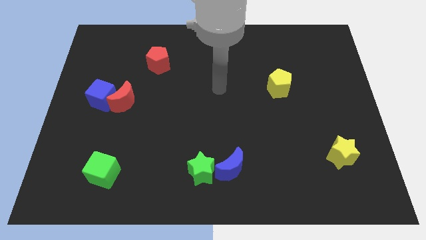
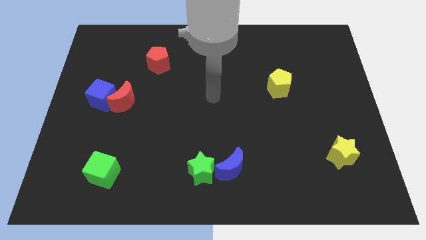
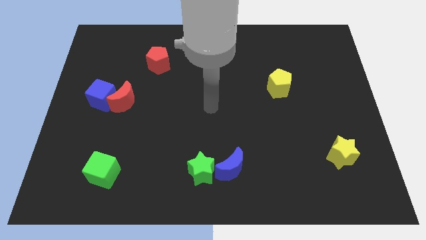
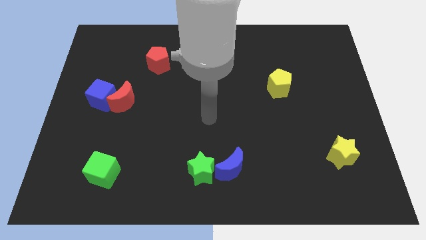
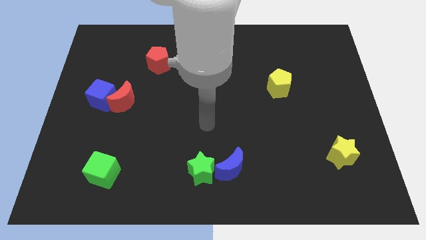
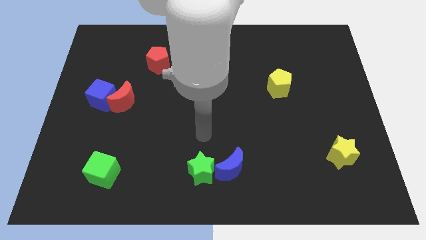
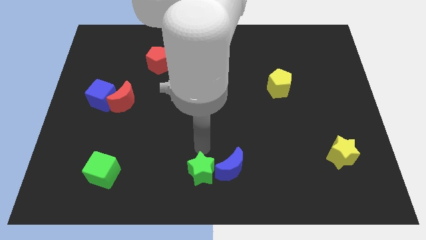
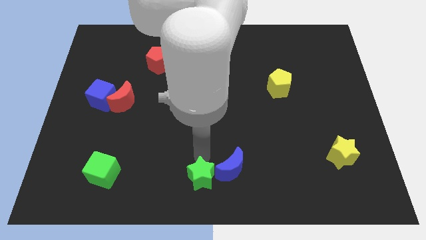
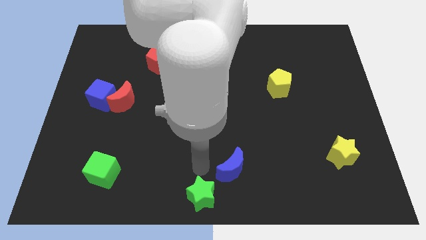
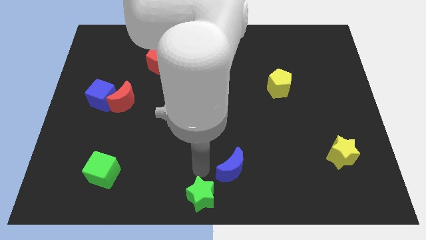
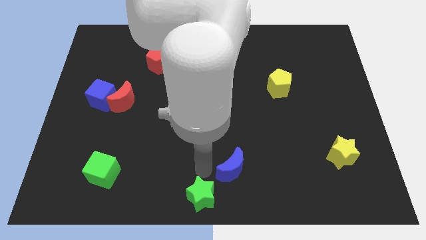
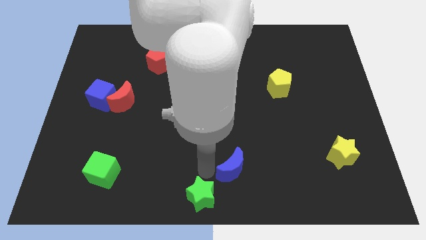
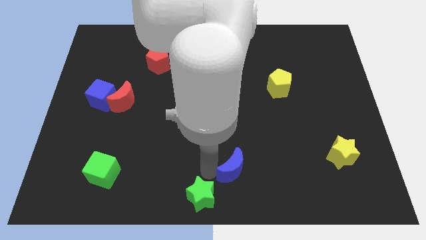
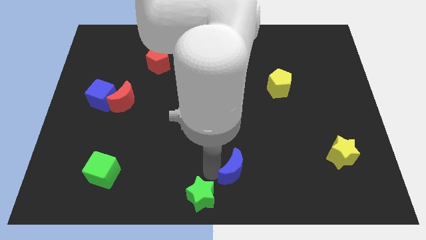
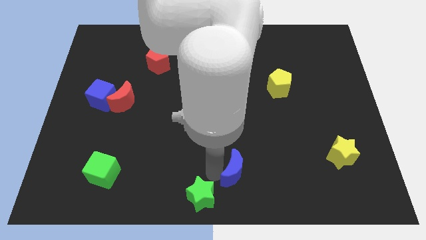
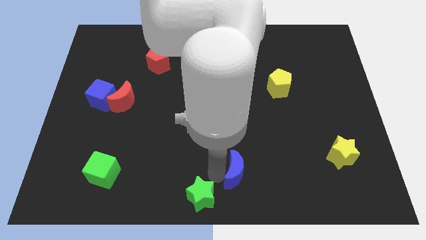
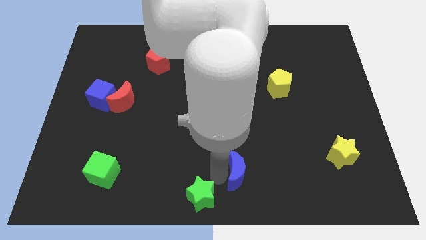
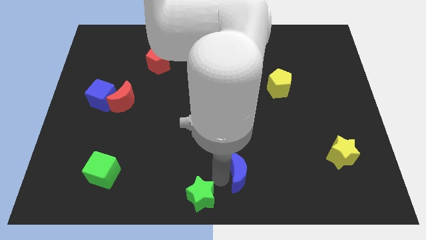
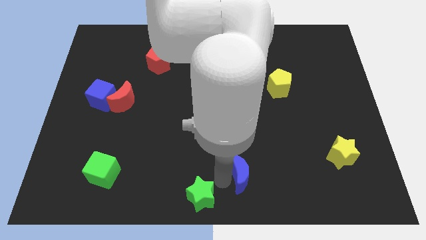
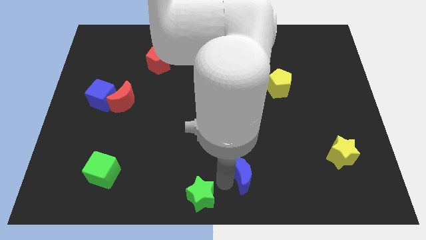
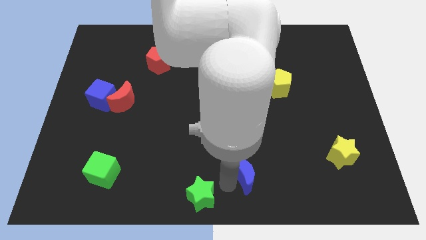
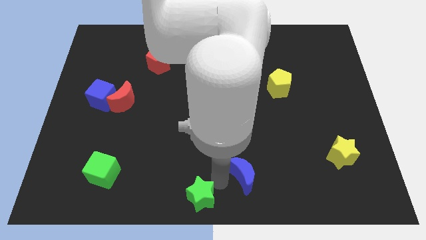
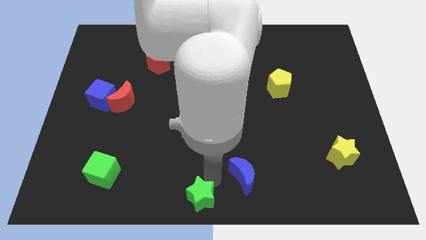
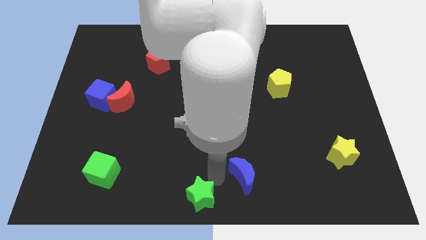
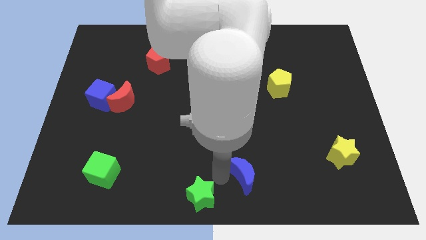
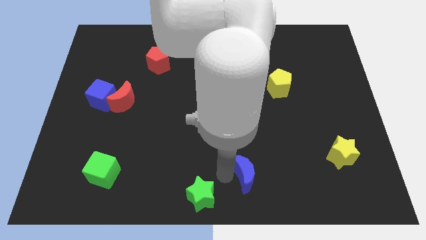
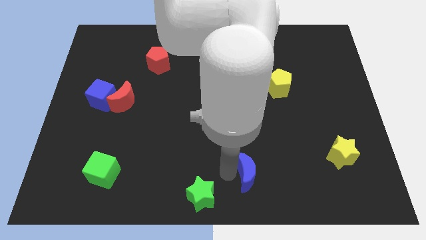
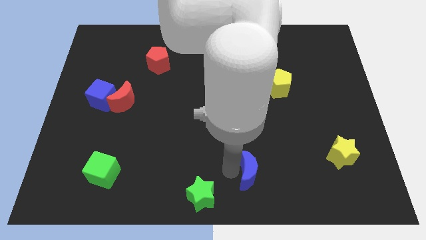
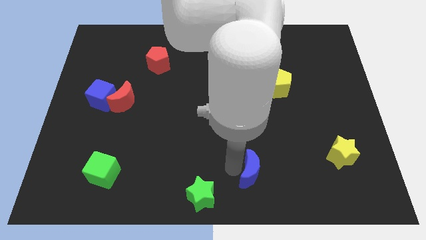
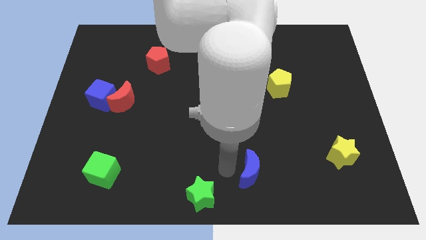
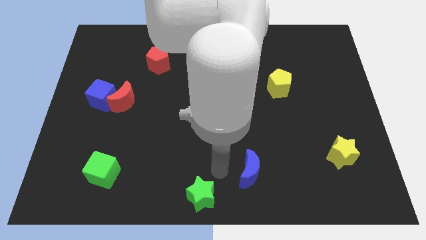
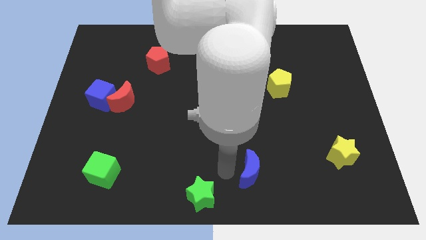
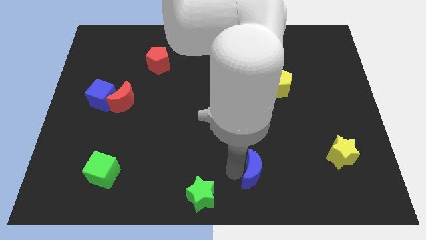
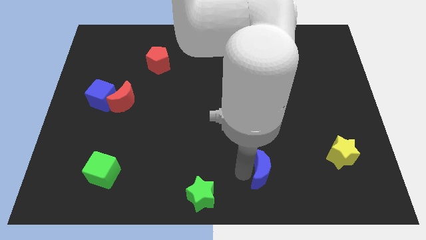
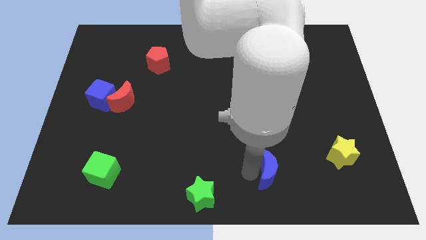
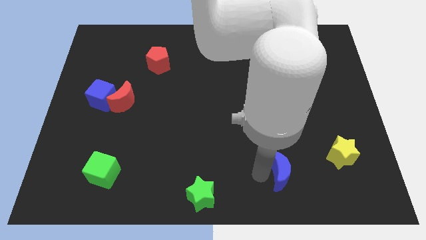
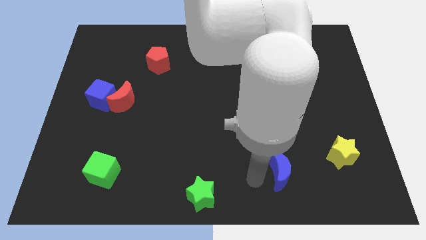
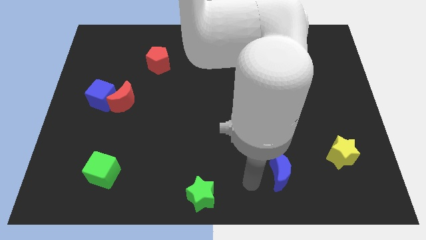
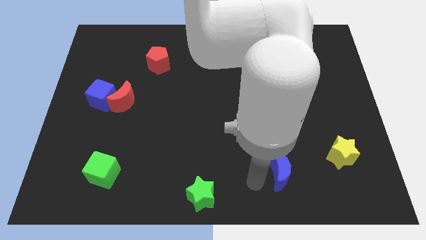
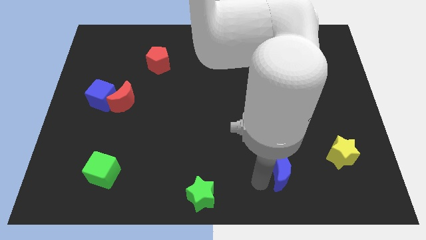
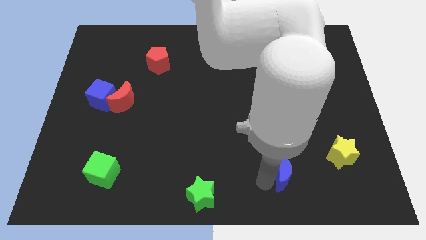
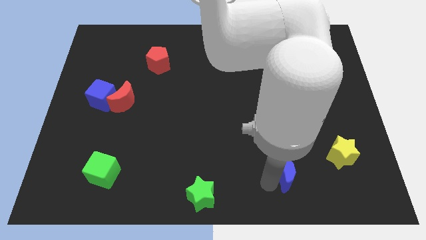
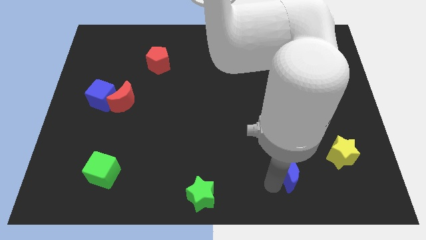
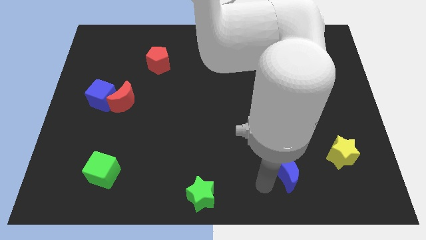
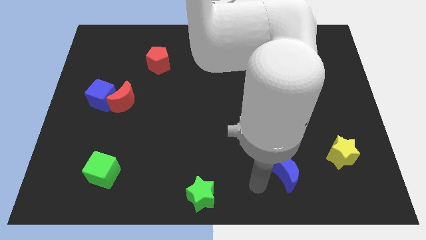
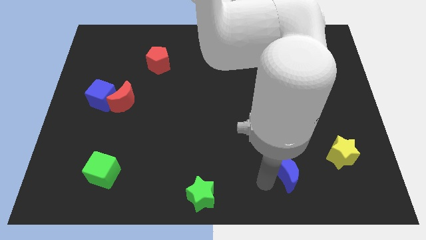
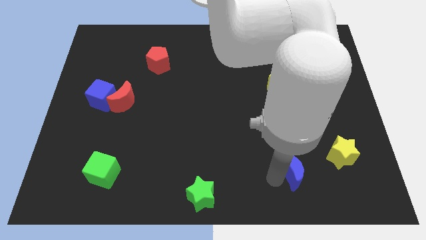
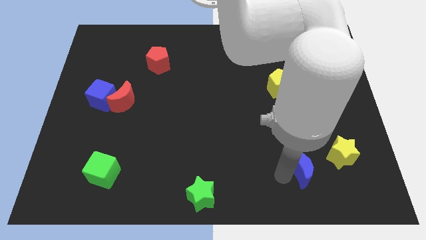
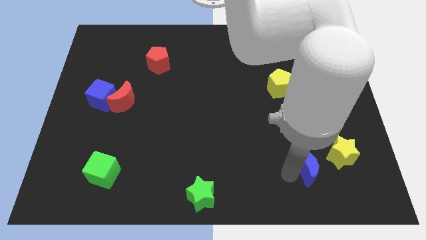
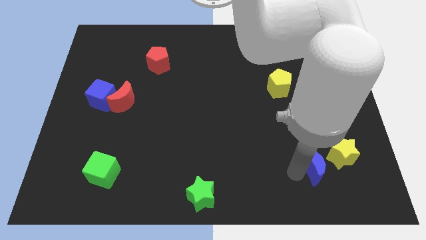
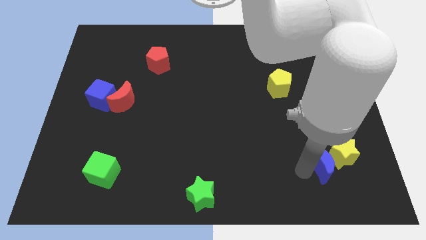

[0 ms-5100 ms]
push the blue moon close to the yellow star

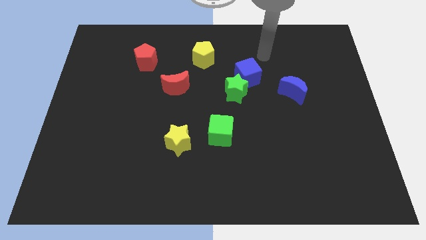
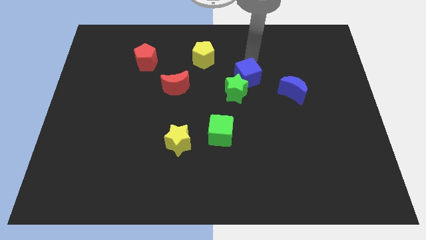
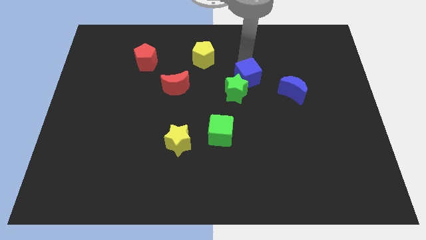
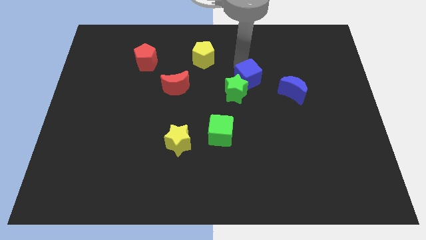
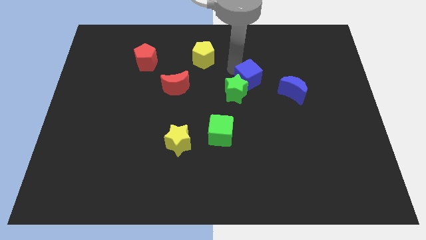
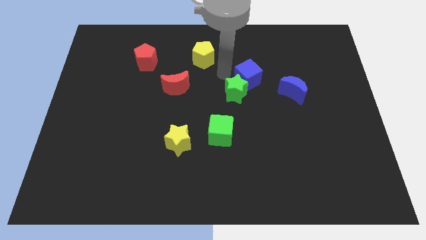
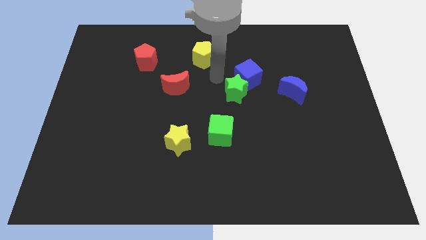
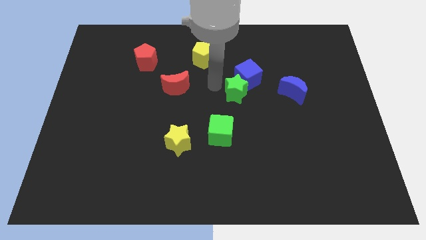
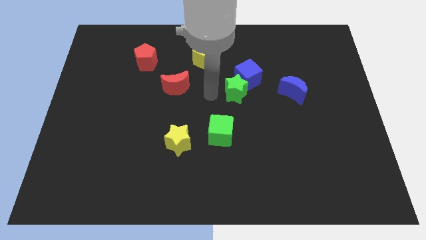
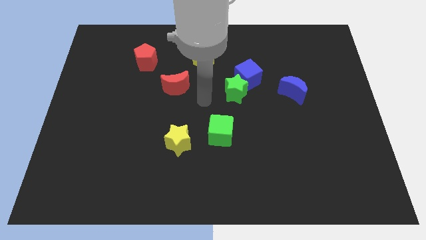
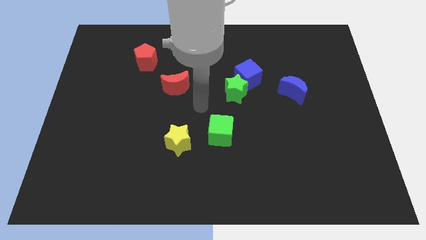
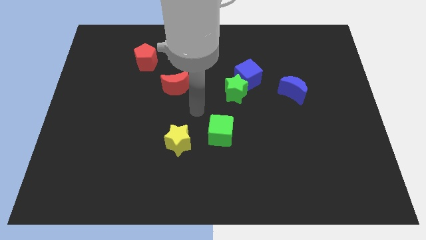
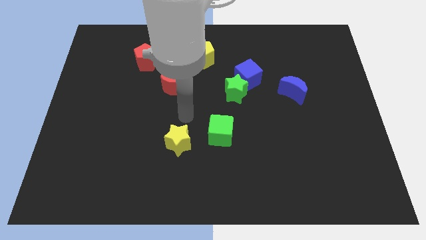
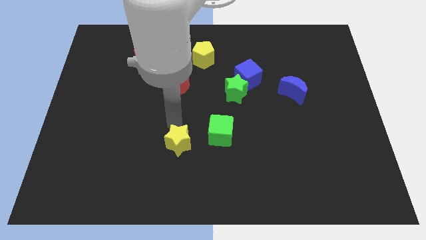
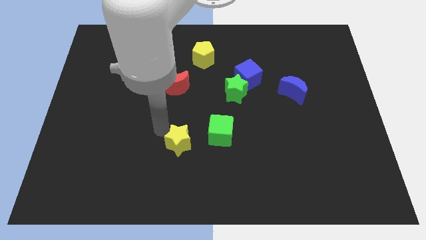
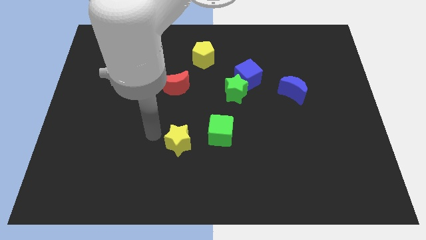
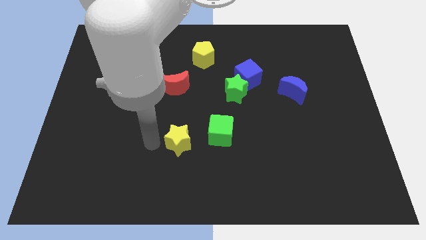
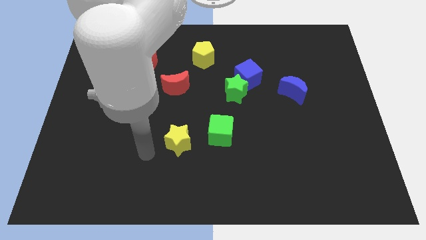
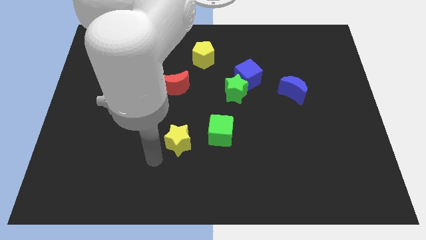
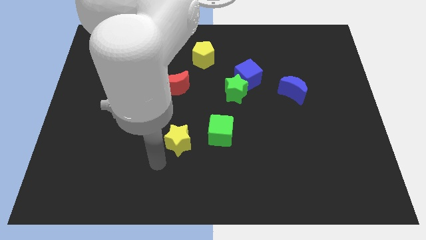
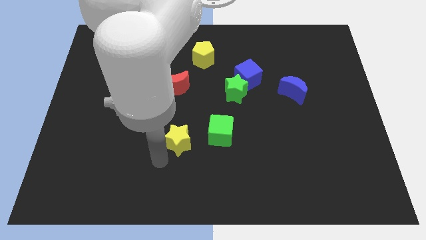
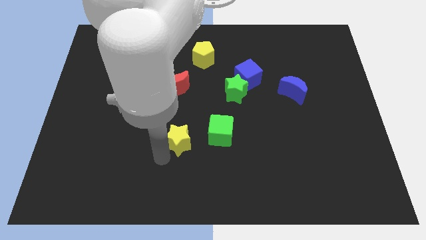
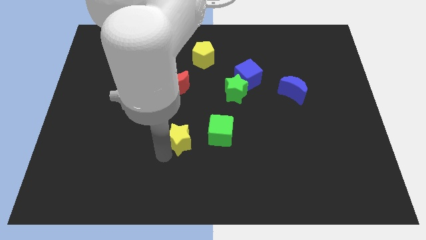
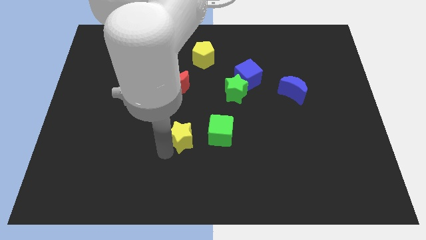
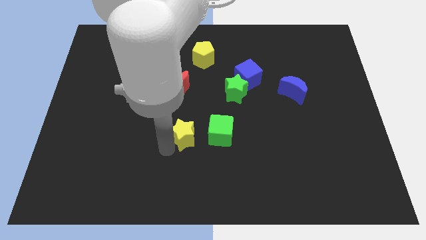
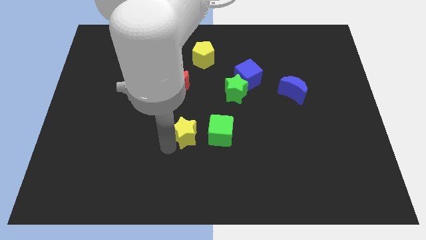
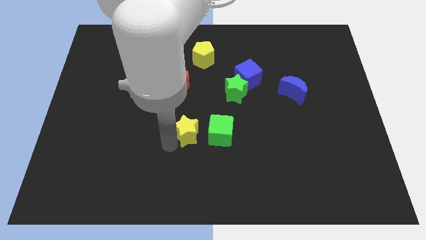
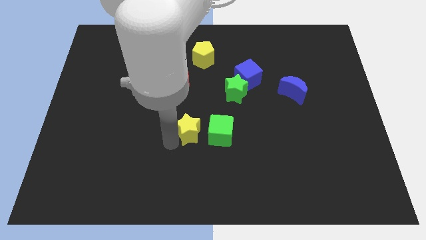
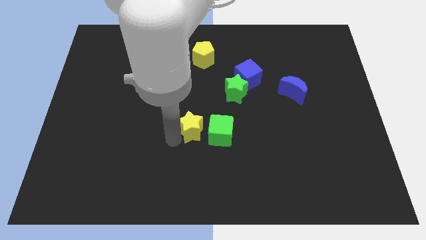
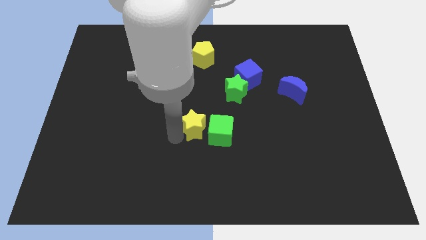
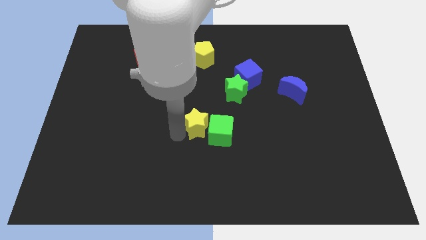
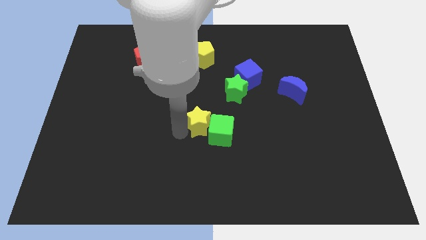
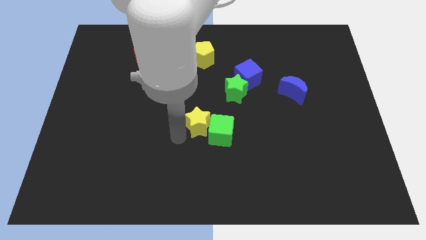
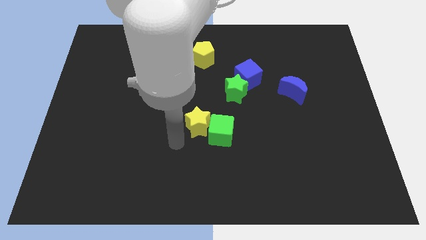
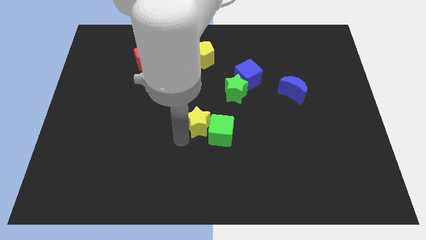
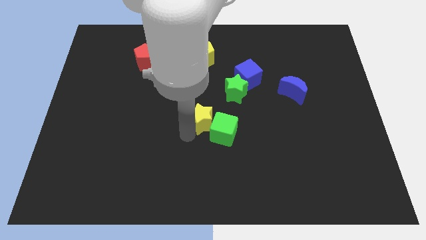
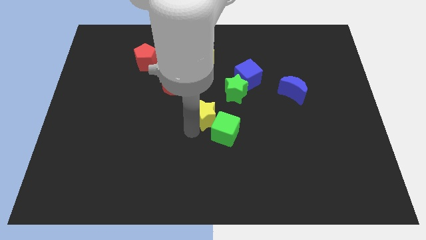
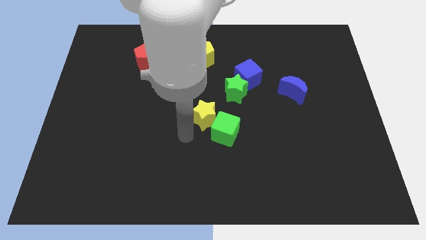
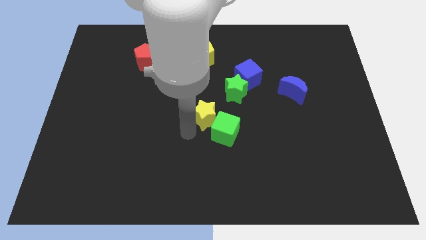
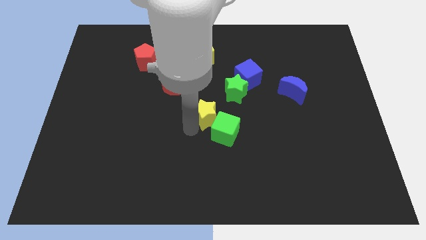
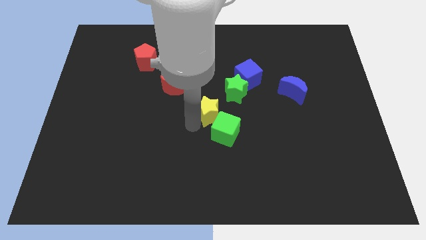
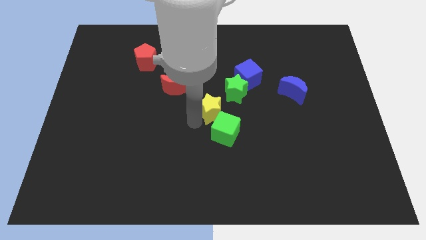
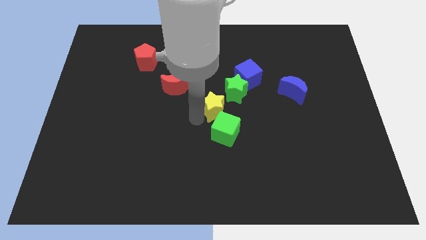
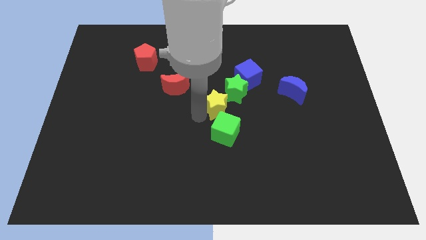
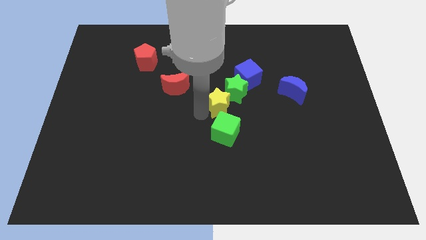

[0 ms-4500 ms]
slide the yellow star close to the green star
